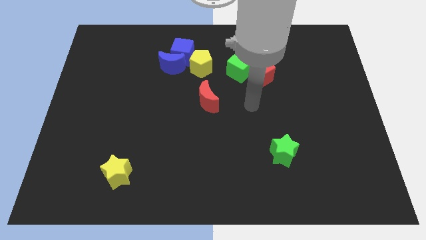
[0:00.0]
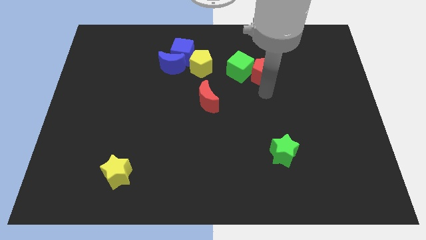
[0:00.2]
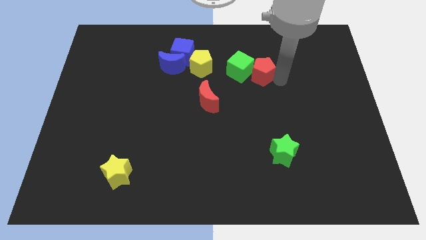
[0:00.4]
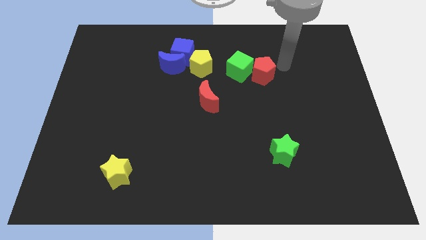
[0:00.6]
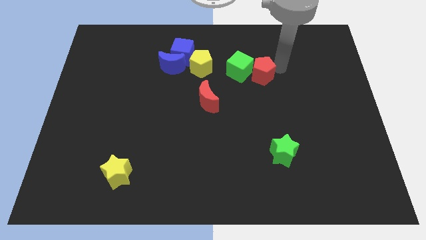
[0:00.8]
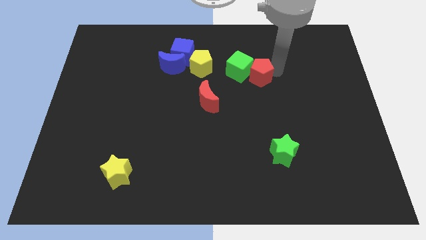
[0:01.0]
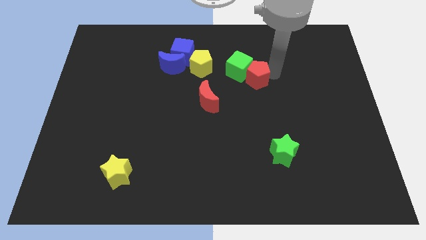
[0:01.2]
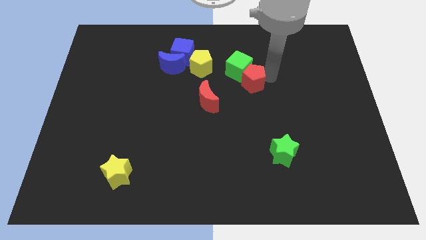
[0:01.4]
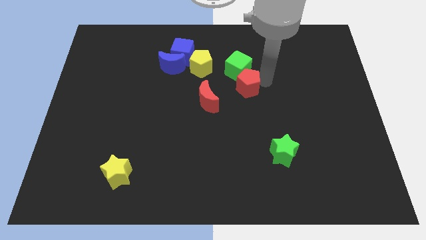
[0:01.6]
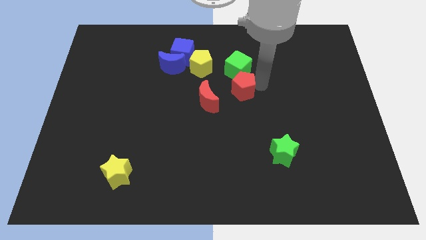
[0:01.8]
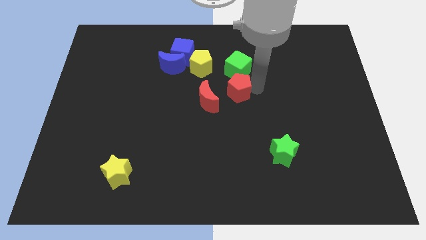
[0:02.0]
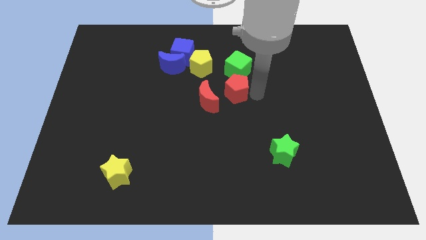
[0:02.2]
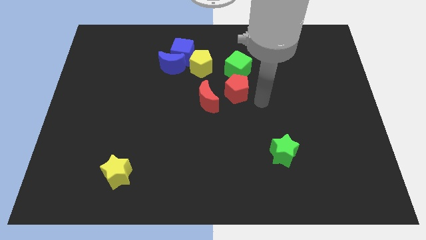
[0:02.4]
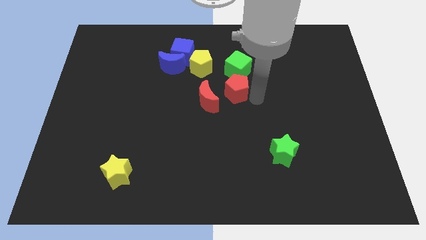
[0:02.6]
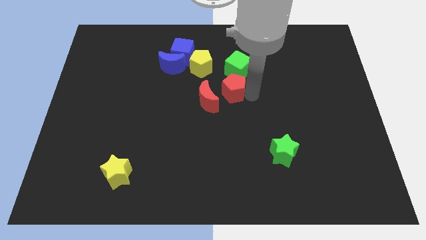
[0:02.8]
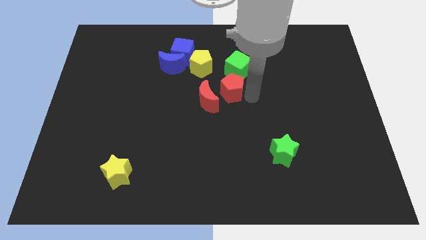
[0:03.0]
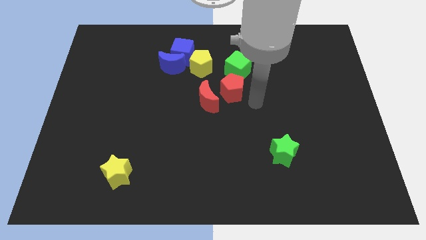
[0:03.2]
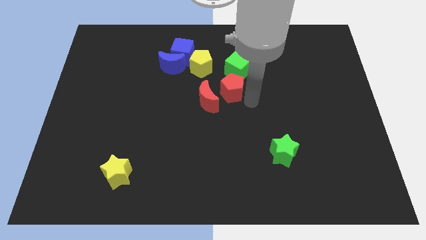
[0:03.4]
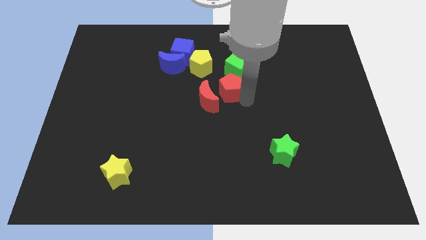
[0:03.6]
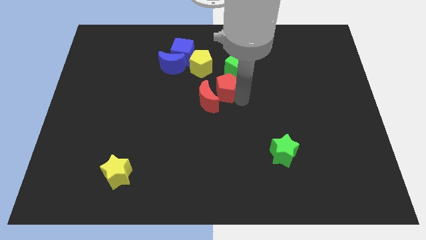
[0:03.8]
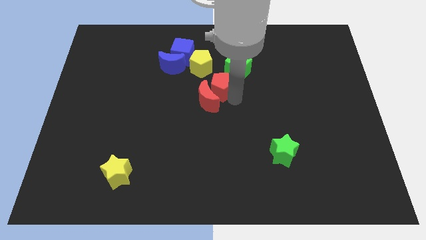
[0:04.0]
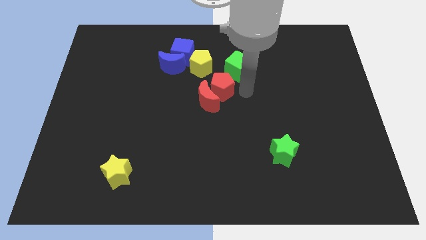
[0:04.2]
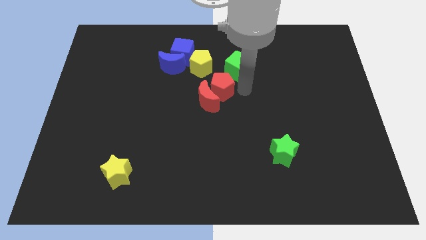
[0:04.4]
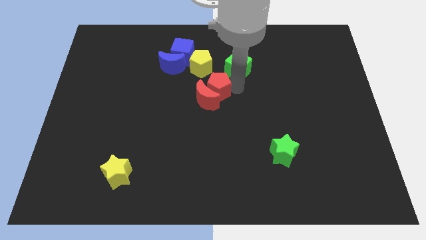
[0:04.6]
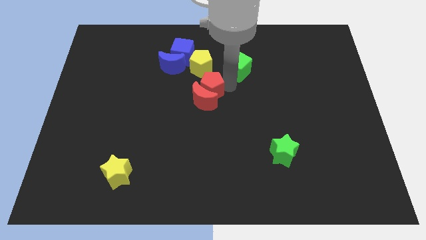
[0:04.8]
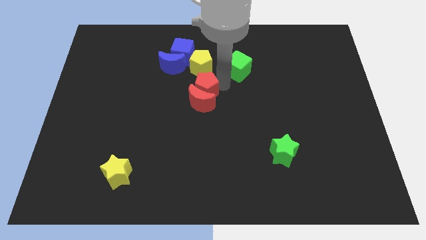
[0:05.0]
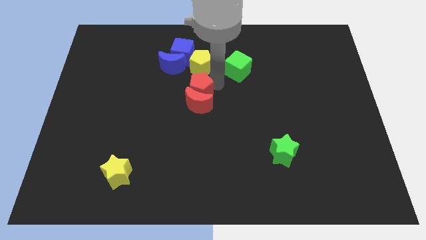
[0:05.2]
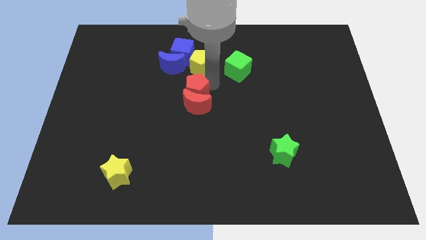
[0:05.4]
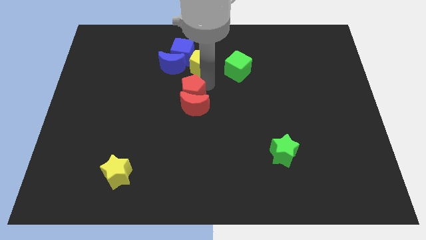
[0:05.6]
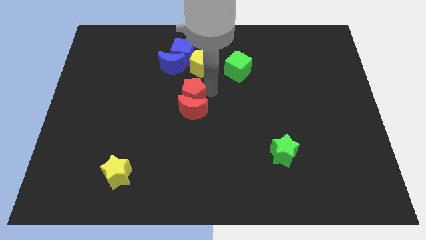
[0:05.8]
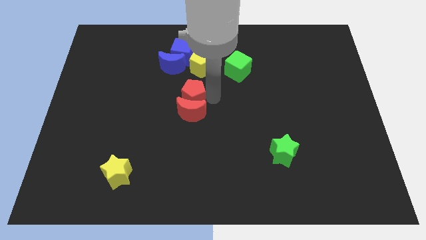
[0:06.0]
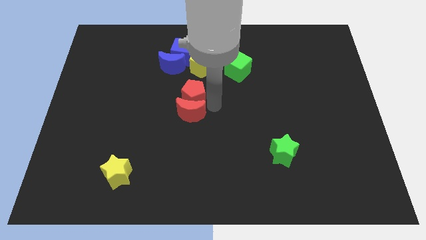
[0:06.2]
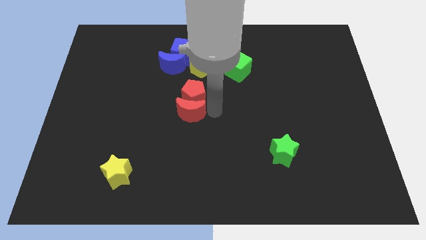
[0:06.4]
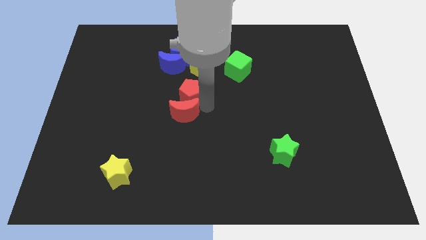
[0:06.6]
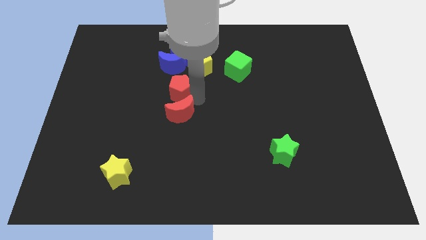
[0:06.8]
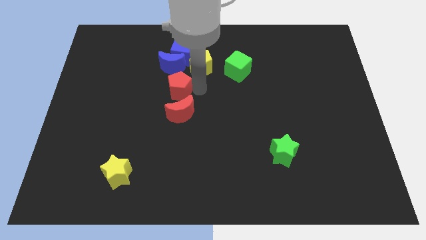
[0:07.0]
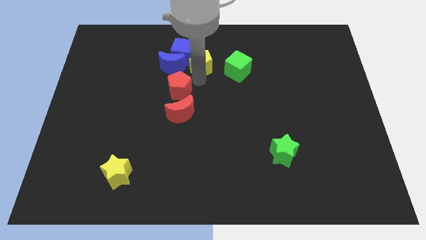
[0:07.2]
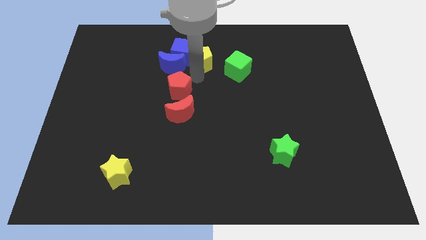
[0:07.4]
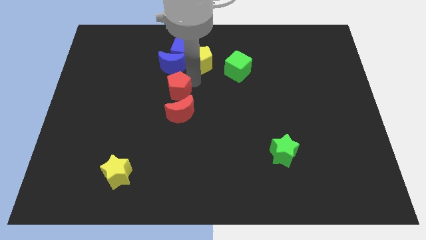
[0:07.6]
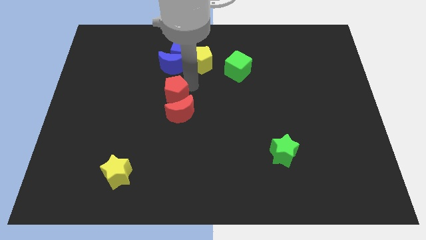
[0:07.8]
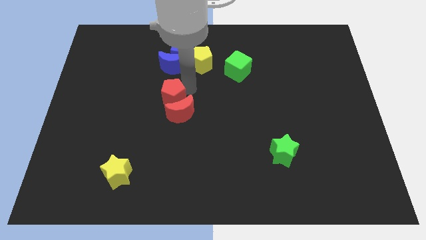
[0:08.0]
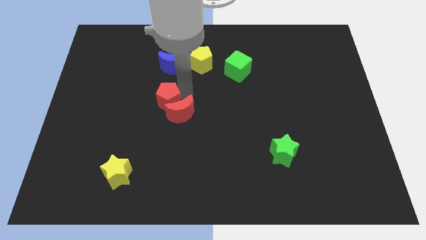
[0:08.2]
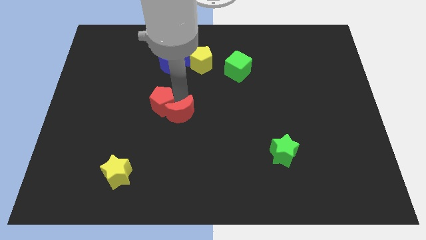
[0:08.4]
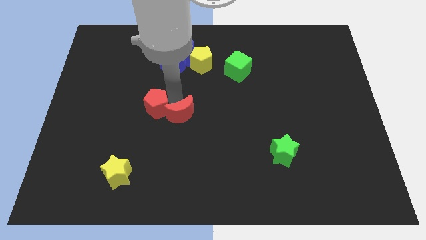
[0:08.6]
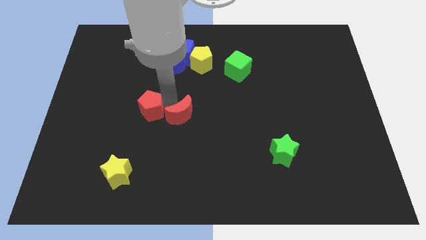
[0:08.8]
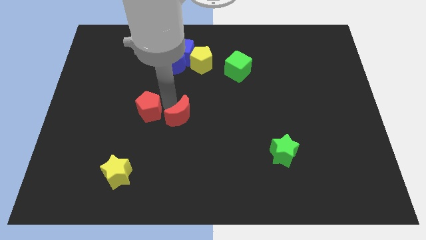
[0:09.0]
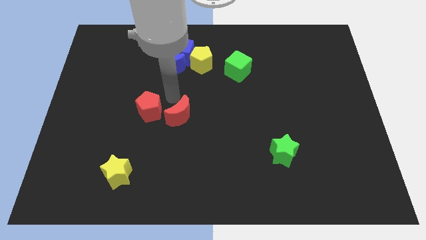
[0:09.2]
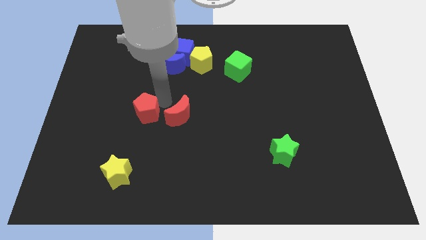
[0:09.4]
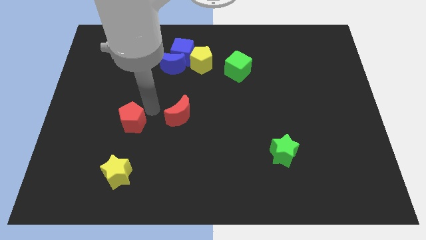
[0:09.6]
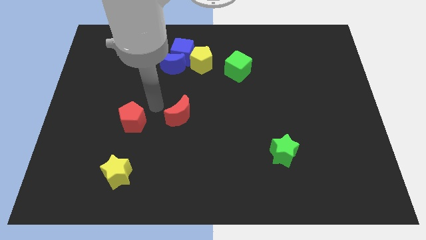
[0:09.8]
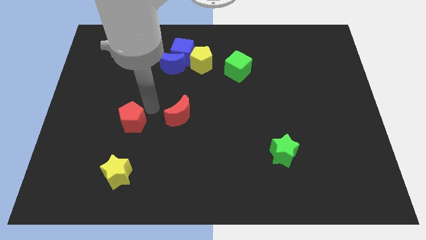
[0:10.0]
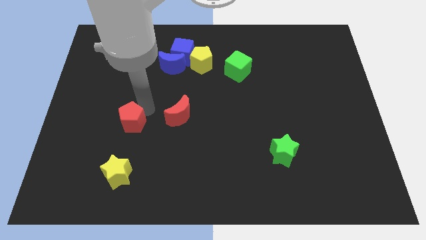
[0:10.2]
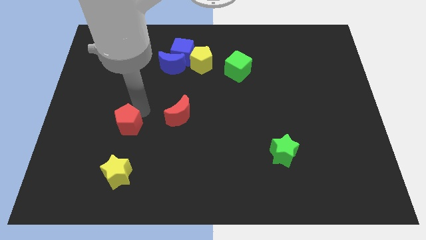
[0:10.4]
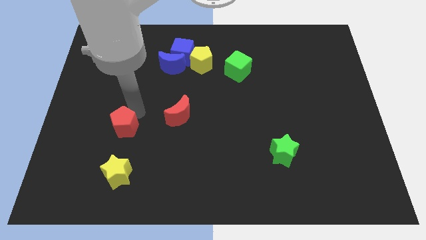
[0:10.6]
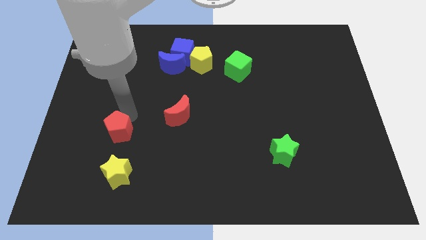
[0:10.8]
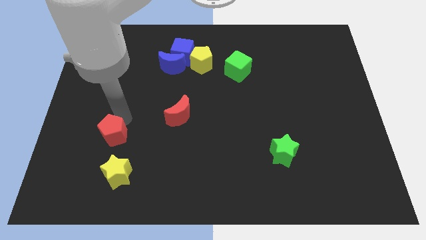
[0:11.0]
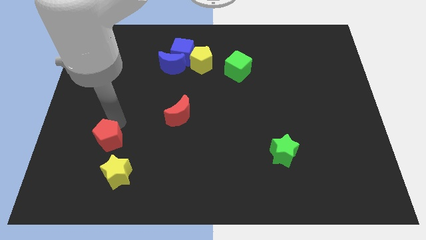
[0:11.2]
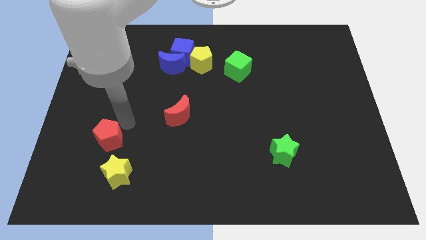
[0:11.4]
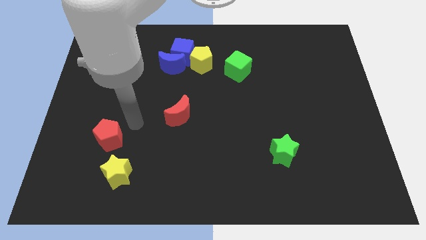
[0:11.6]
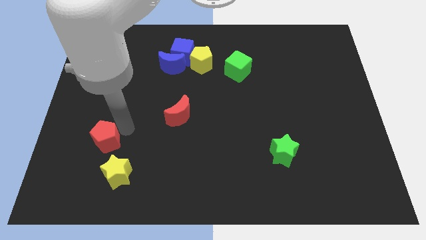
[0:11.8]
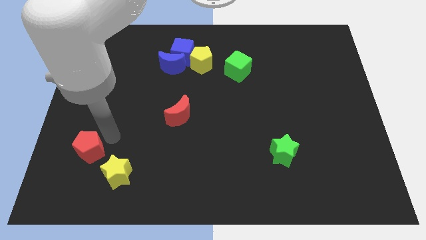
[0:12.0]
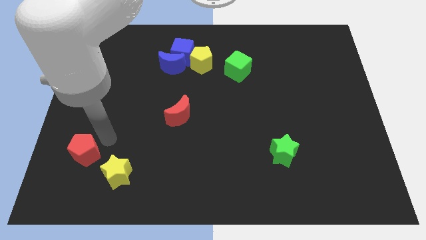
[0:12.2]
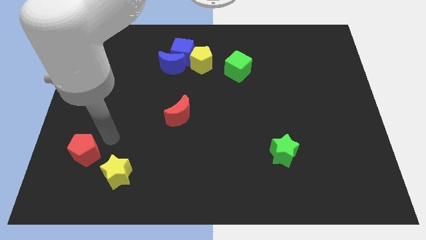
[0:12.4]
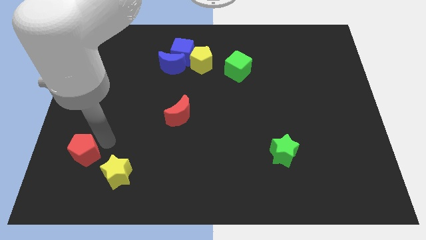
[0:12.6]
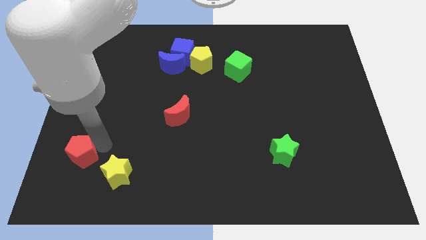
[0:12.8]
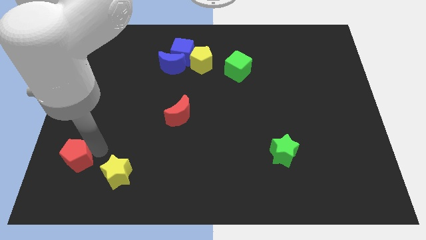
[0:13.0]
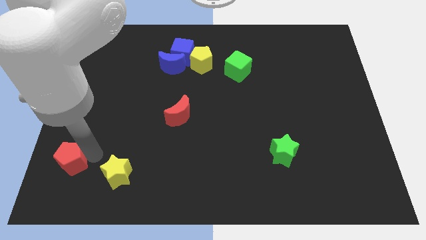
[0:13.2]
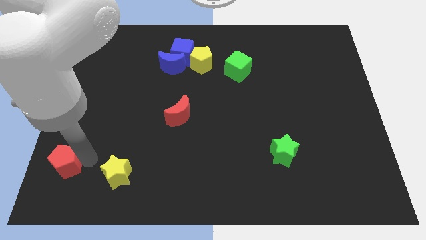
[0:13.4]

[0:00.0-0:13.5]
move the red pentagon to the lower left corner

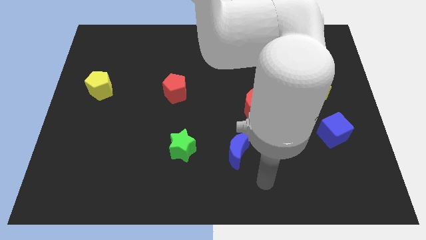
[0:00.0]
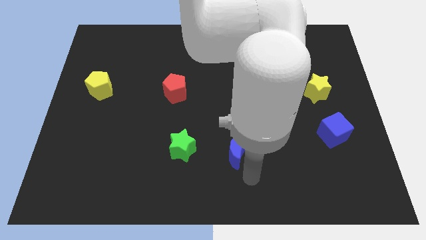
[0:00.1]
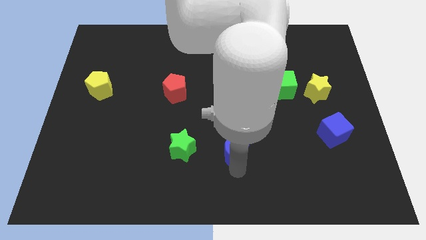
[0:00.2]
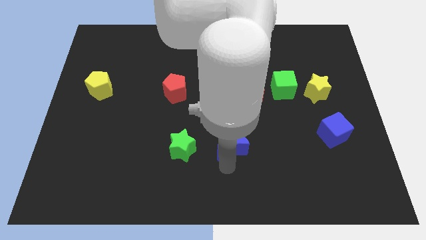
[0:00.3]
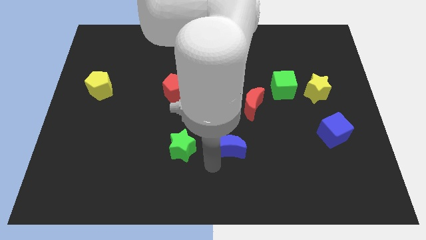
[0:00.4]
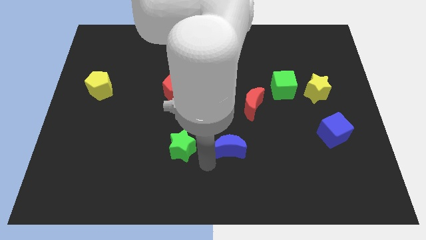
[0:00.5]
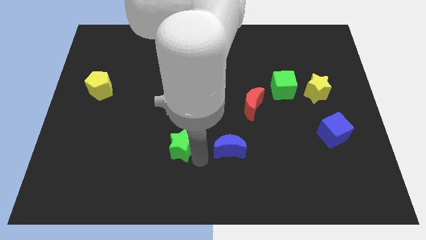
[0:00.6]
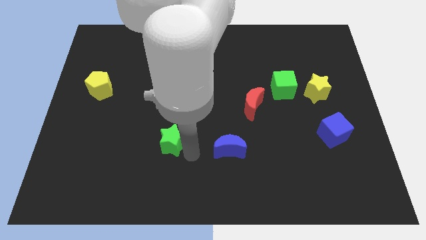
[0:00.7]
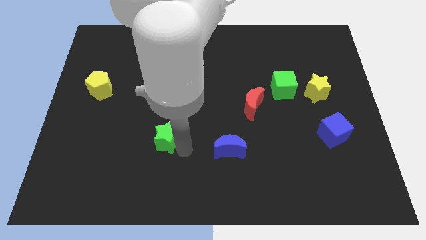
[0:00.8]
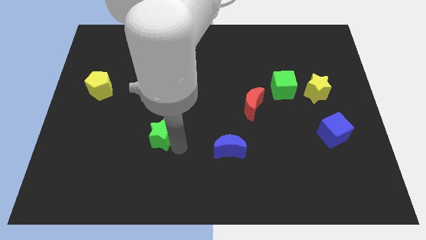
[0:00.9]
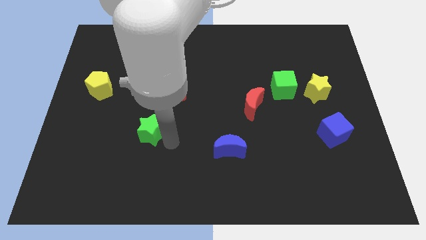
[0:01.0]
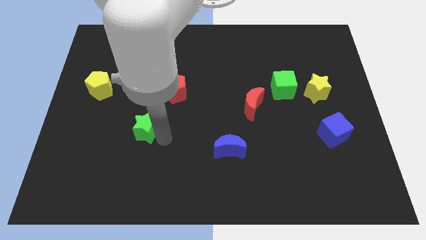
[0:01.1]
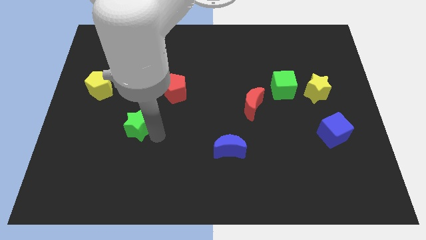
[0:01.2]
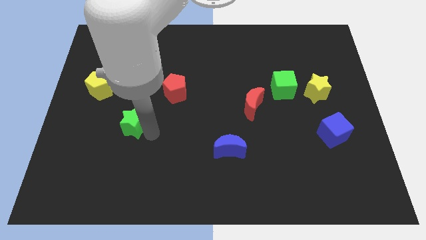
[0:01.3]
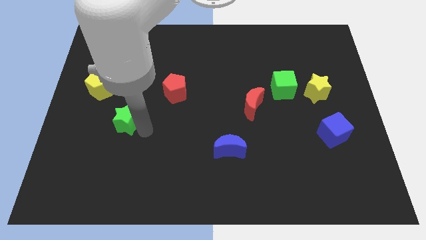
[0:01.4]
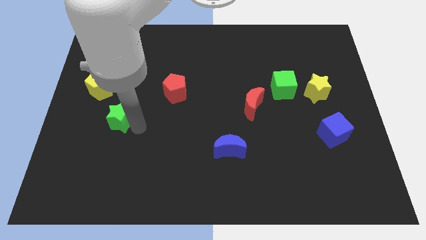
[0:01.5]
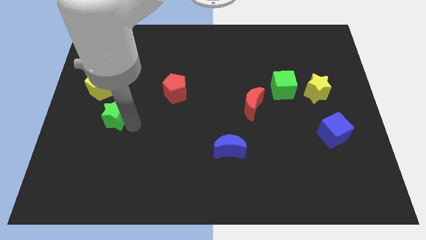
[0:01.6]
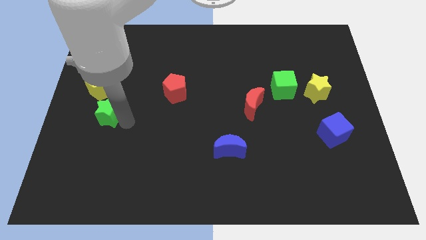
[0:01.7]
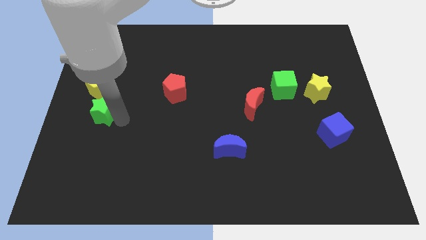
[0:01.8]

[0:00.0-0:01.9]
put the green star to the center left
